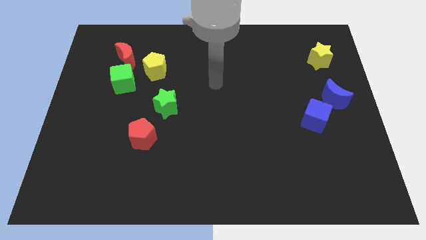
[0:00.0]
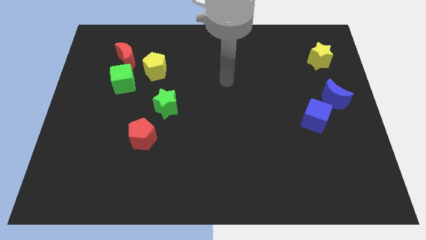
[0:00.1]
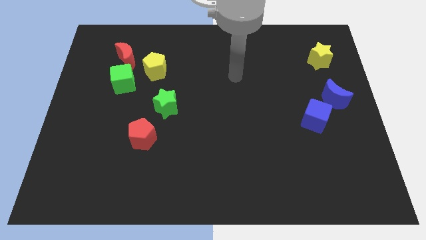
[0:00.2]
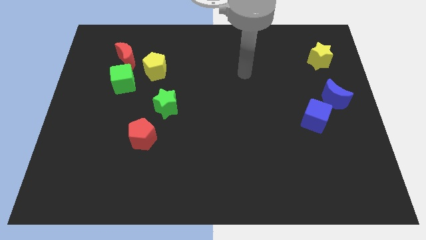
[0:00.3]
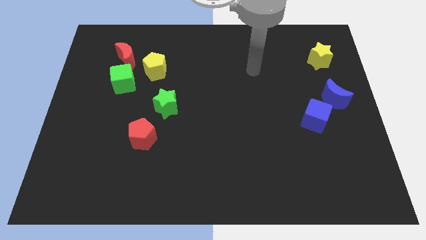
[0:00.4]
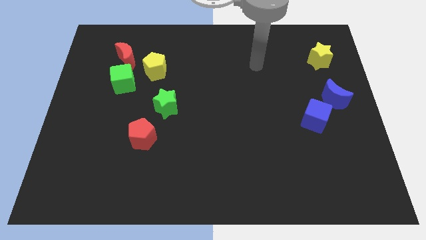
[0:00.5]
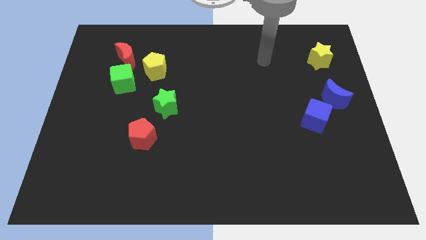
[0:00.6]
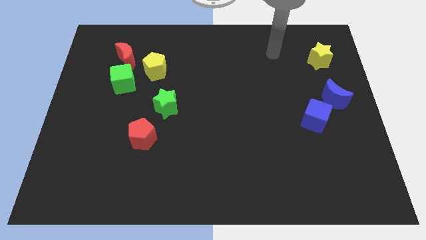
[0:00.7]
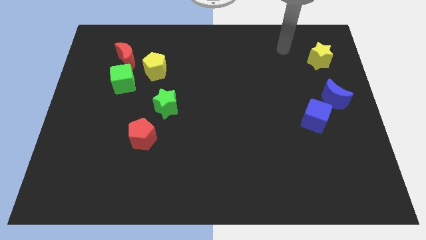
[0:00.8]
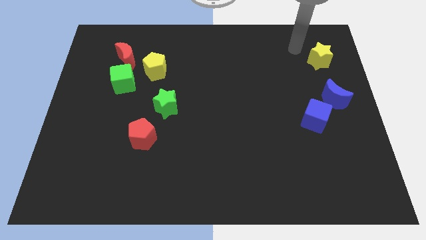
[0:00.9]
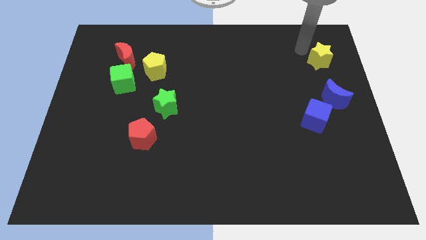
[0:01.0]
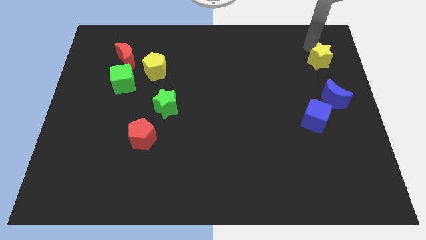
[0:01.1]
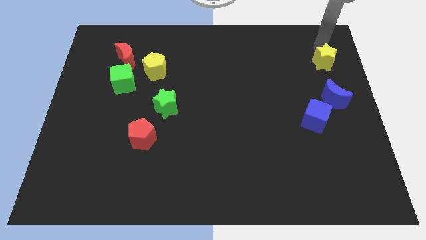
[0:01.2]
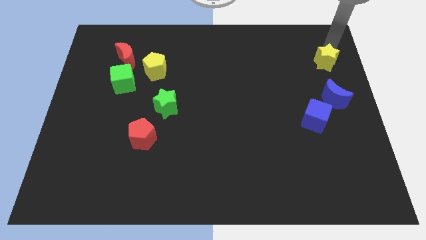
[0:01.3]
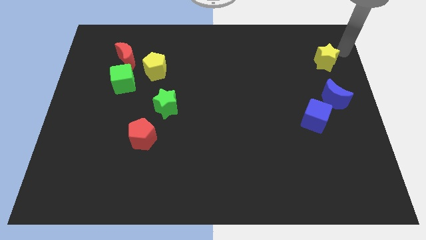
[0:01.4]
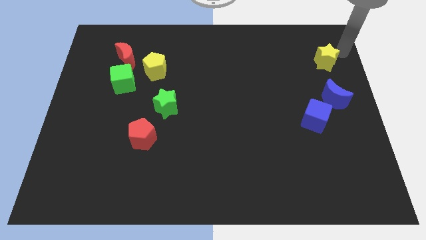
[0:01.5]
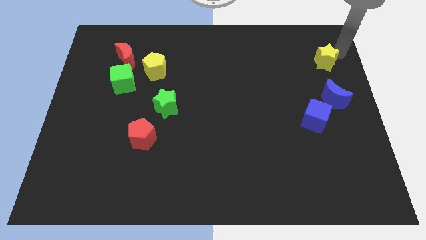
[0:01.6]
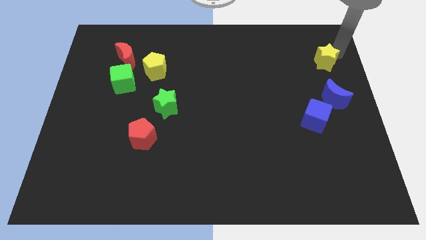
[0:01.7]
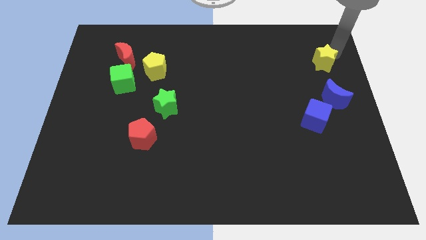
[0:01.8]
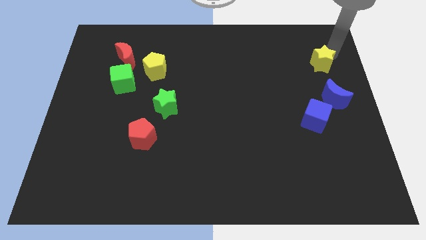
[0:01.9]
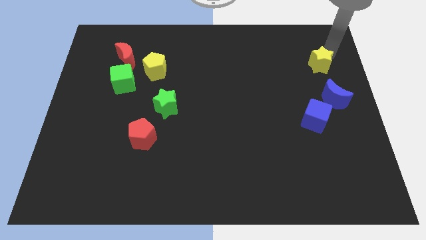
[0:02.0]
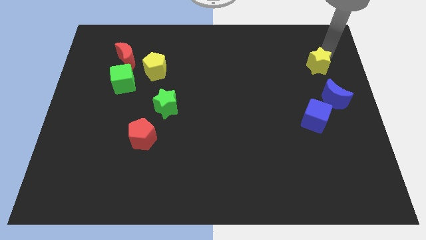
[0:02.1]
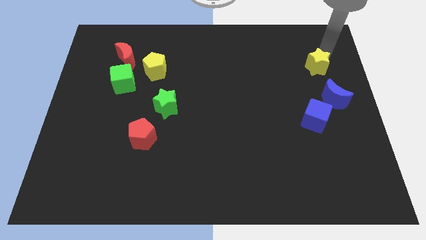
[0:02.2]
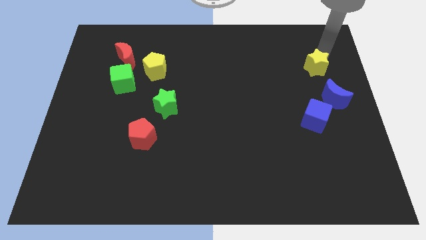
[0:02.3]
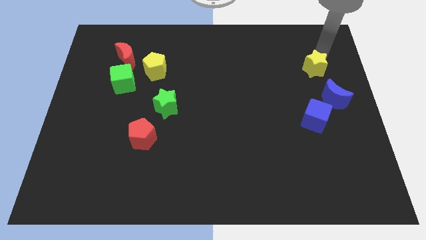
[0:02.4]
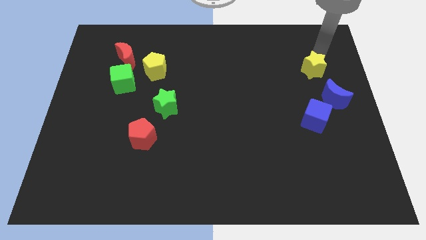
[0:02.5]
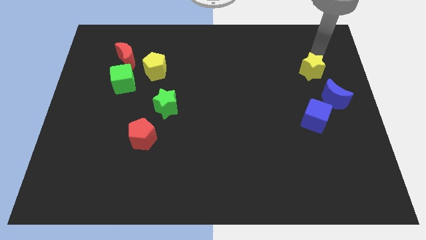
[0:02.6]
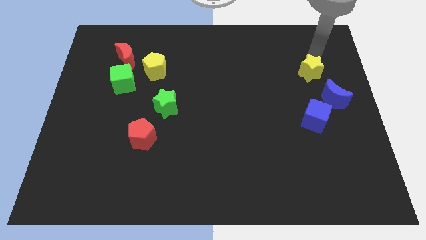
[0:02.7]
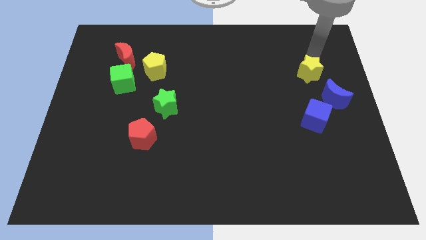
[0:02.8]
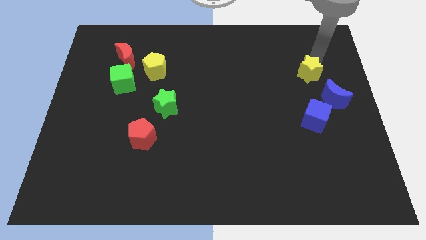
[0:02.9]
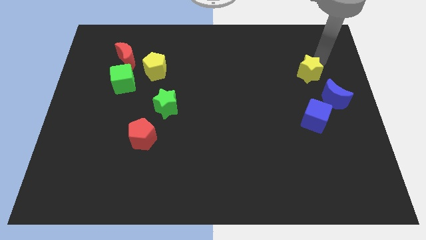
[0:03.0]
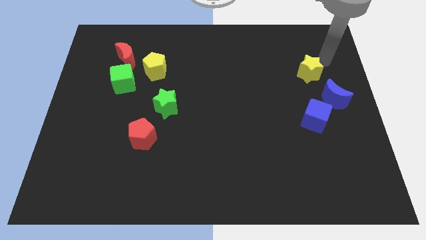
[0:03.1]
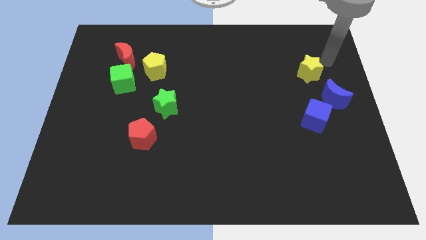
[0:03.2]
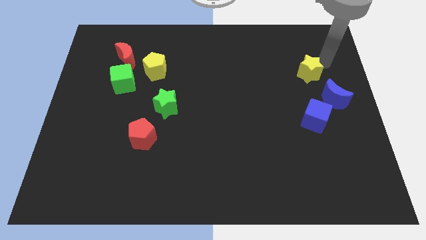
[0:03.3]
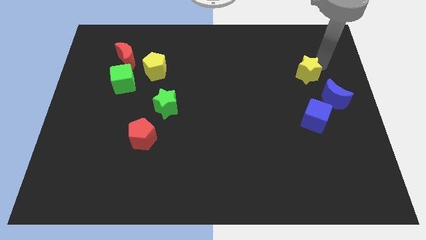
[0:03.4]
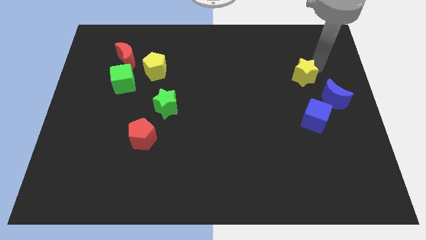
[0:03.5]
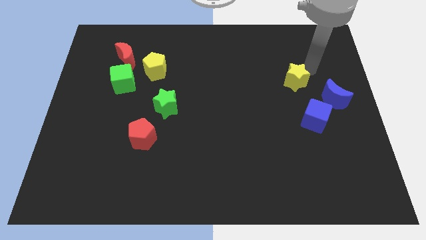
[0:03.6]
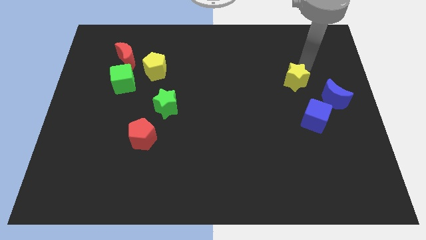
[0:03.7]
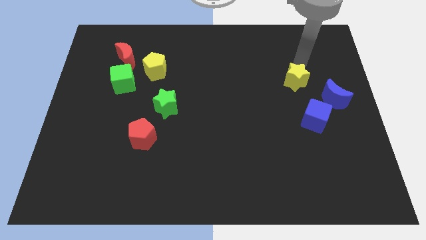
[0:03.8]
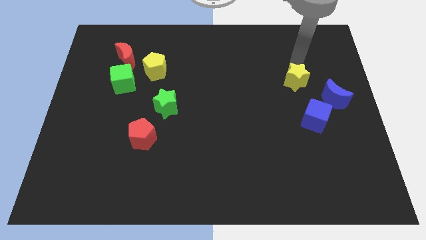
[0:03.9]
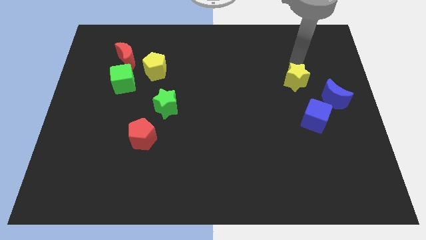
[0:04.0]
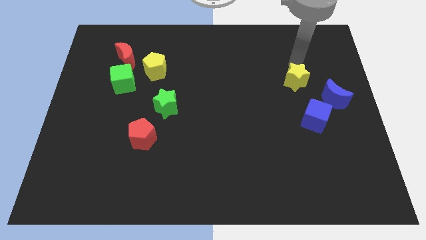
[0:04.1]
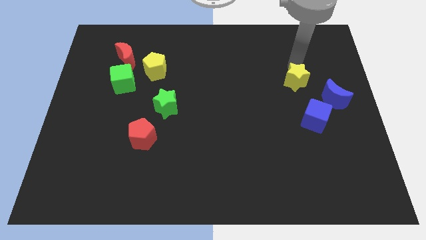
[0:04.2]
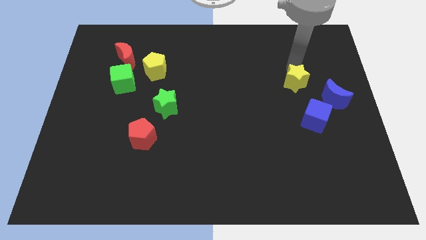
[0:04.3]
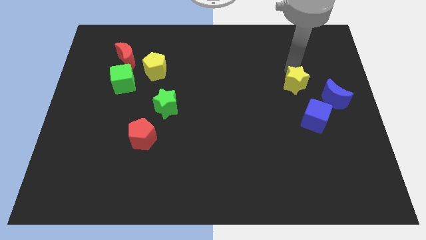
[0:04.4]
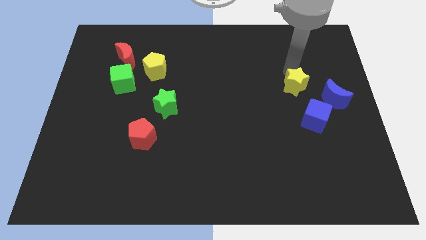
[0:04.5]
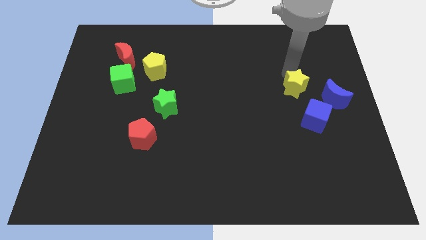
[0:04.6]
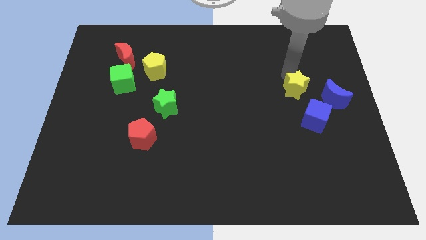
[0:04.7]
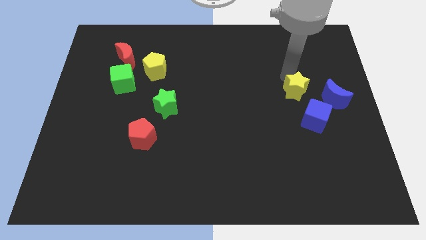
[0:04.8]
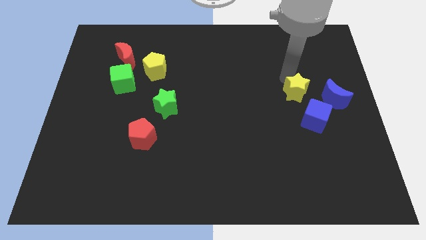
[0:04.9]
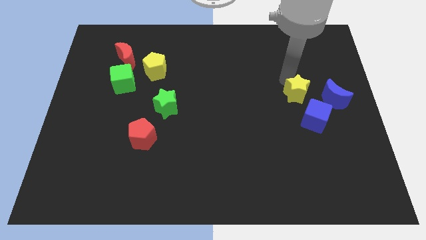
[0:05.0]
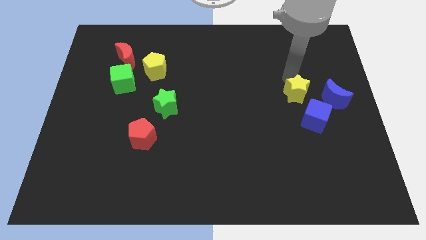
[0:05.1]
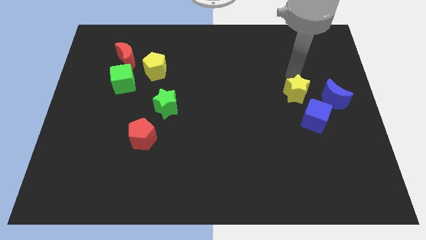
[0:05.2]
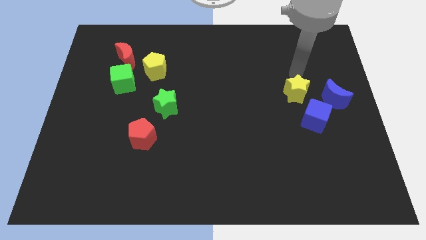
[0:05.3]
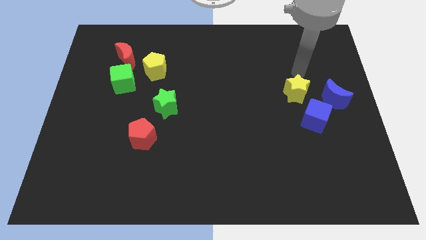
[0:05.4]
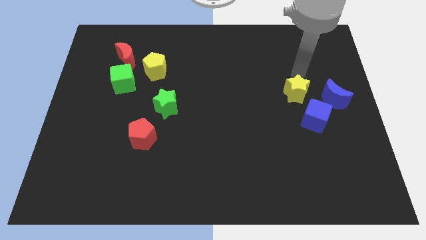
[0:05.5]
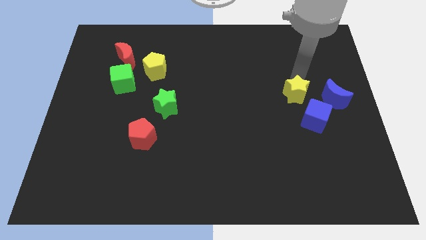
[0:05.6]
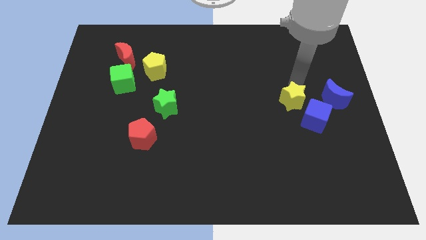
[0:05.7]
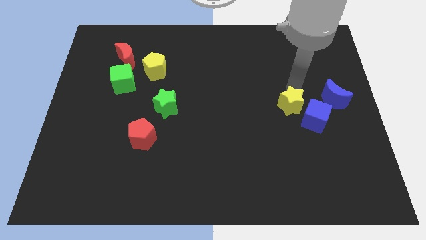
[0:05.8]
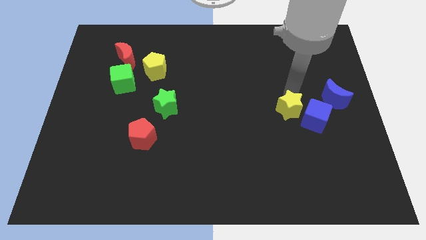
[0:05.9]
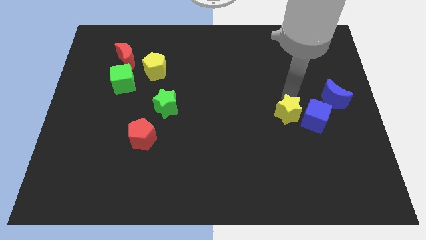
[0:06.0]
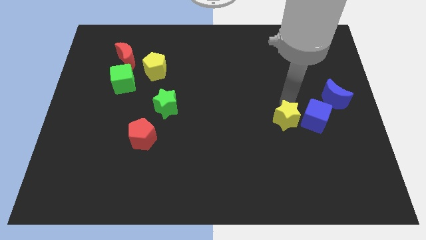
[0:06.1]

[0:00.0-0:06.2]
push the yellow star to the bottom left of the blue cube

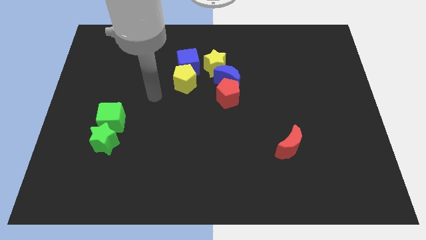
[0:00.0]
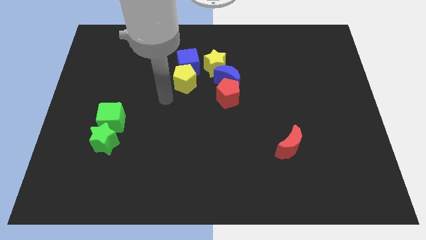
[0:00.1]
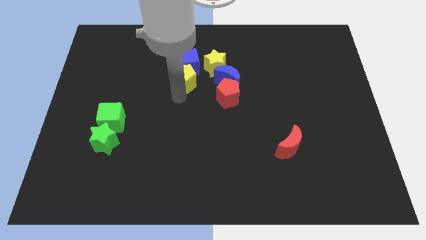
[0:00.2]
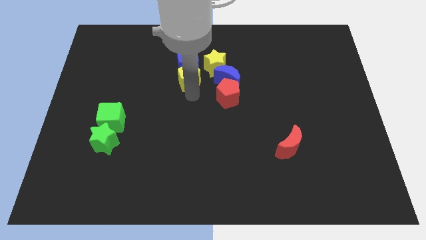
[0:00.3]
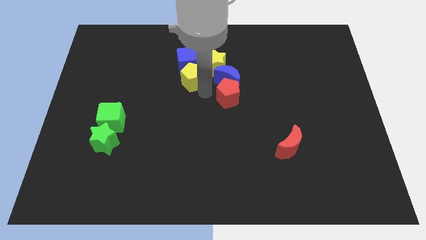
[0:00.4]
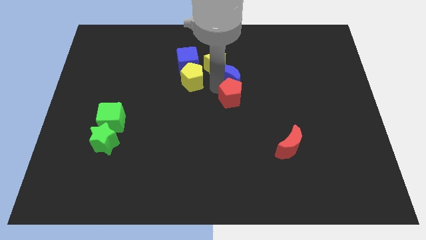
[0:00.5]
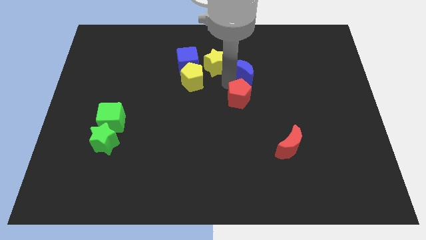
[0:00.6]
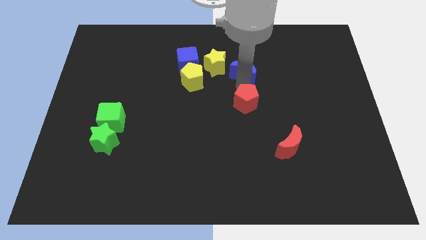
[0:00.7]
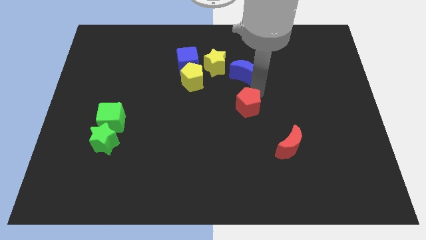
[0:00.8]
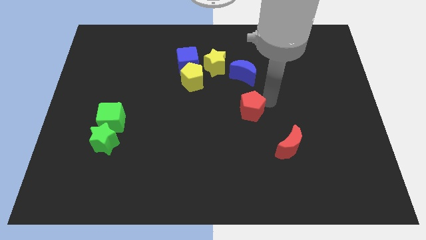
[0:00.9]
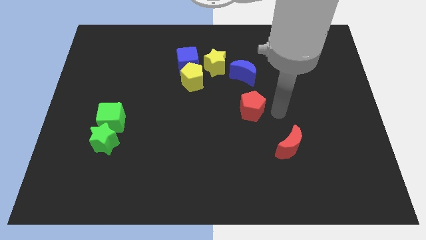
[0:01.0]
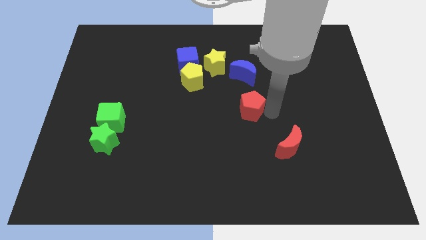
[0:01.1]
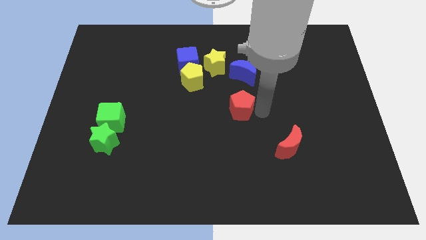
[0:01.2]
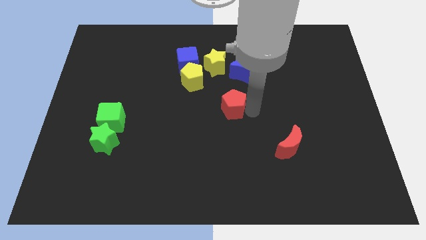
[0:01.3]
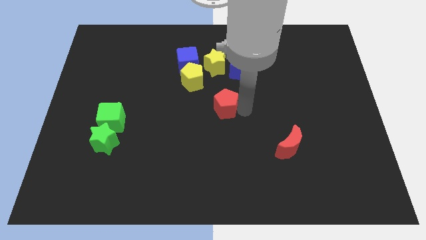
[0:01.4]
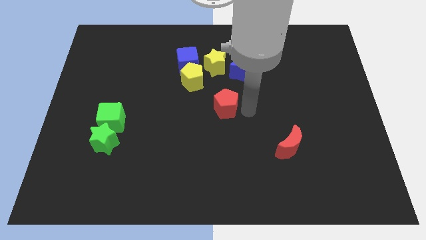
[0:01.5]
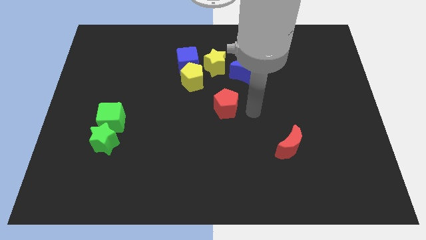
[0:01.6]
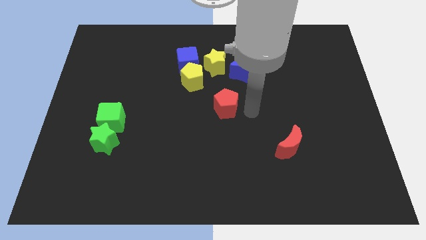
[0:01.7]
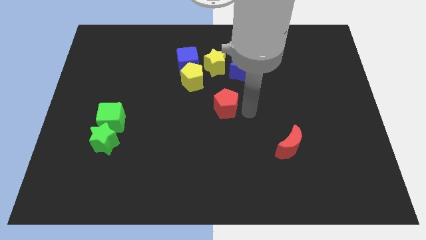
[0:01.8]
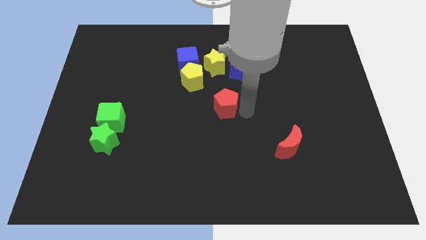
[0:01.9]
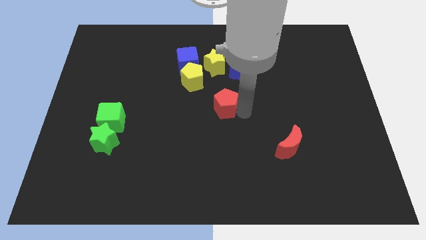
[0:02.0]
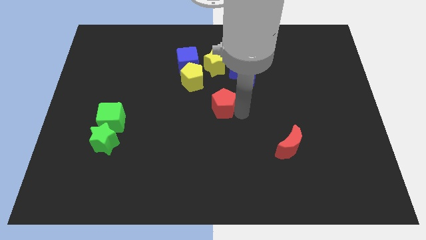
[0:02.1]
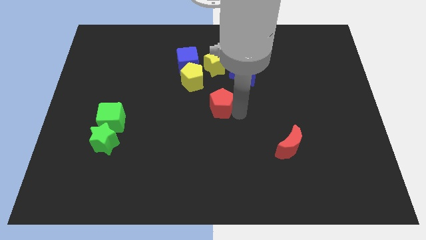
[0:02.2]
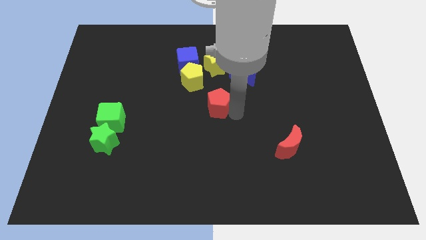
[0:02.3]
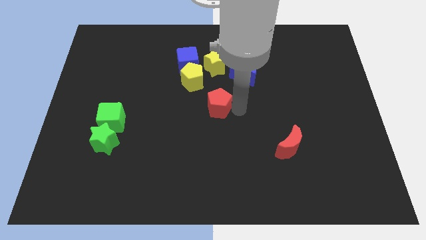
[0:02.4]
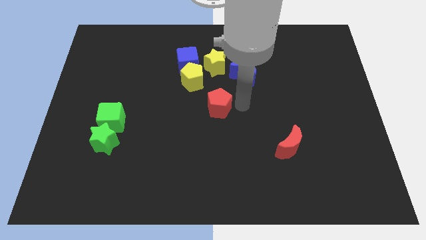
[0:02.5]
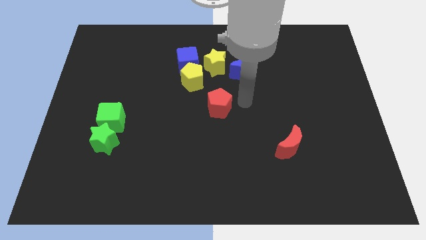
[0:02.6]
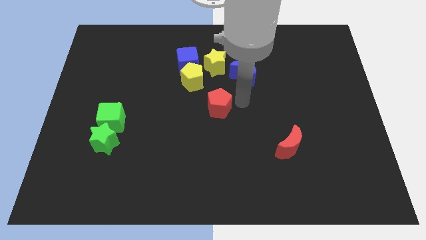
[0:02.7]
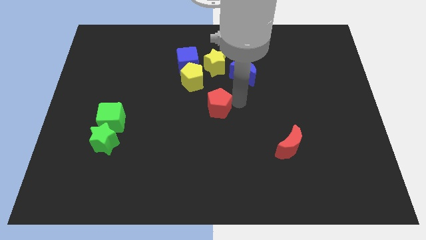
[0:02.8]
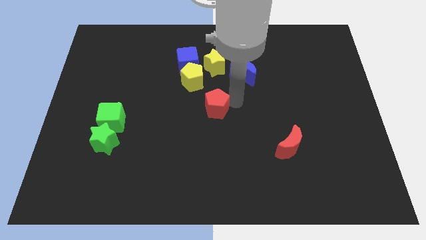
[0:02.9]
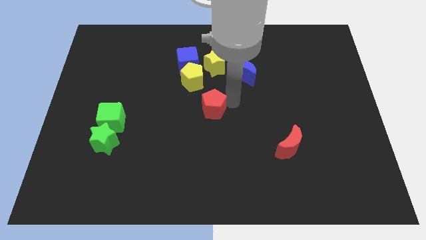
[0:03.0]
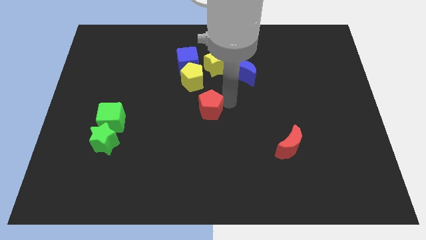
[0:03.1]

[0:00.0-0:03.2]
put the red pentagon below the yellow pentagon
